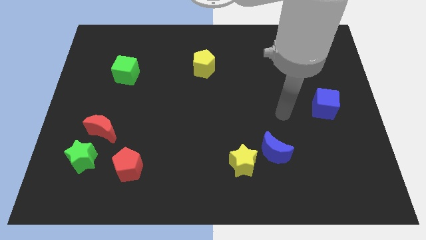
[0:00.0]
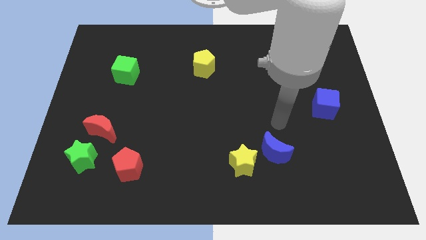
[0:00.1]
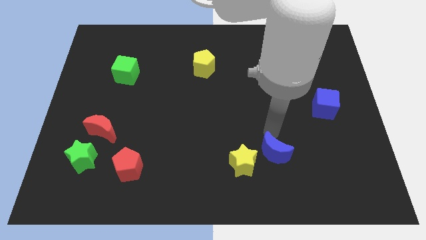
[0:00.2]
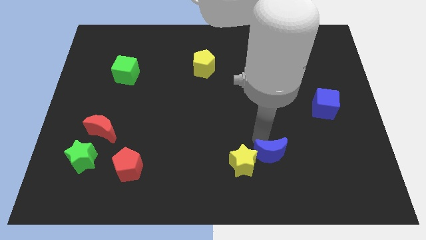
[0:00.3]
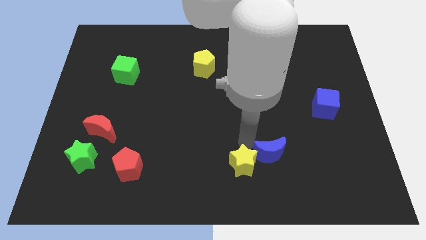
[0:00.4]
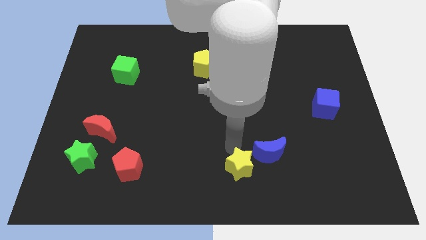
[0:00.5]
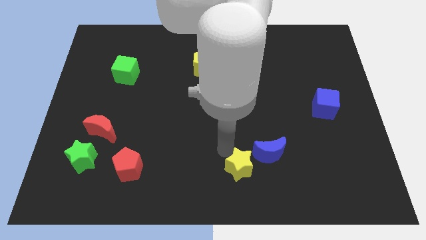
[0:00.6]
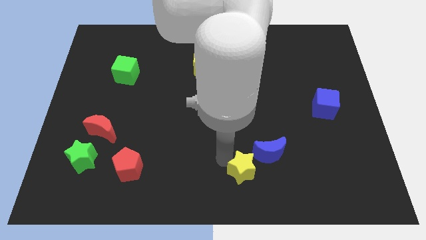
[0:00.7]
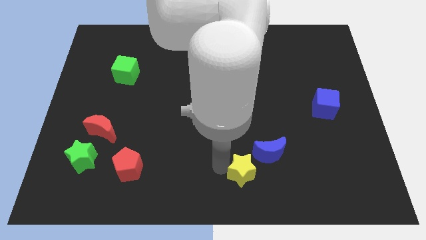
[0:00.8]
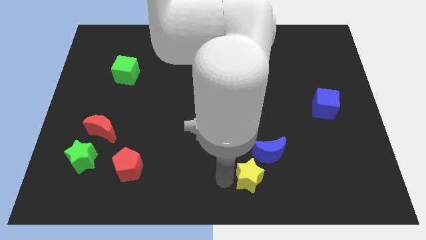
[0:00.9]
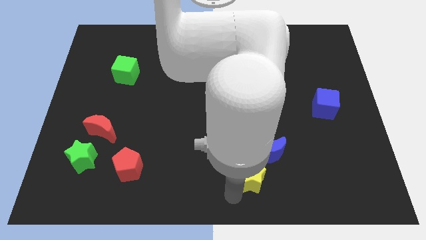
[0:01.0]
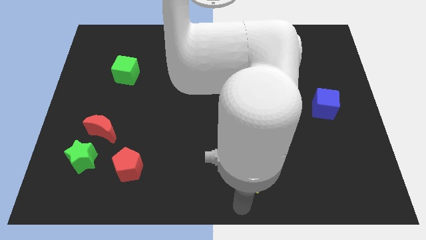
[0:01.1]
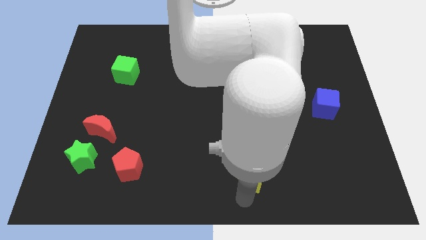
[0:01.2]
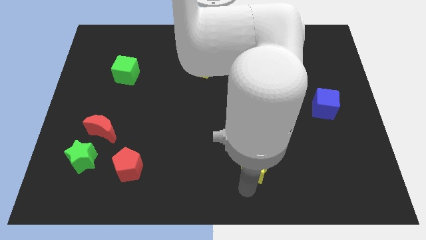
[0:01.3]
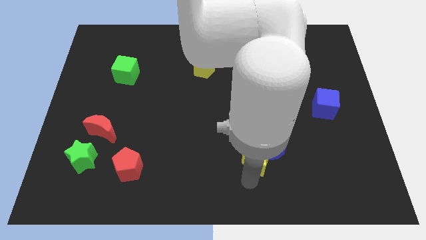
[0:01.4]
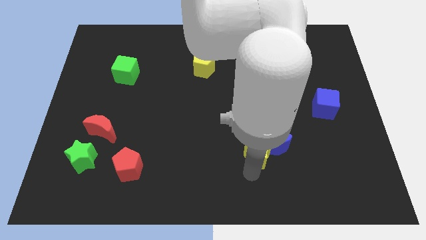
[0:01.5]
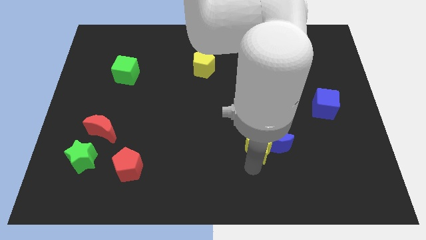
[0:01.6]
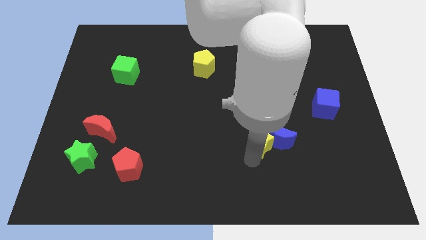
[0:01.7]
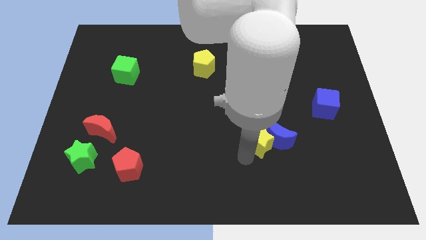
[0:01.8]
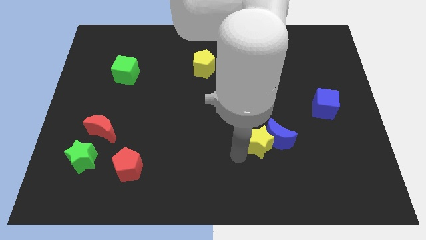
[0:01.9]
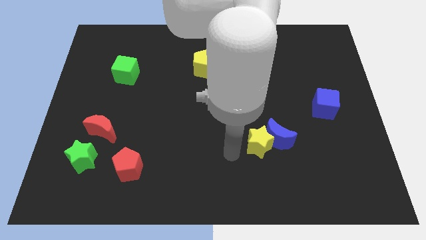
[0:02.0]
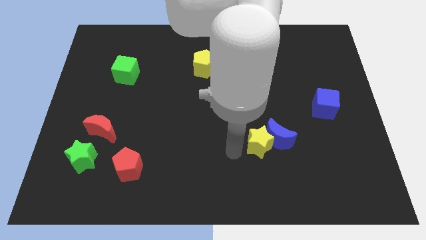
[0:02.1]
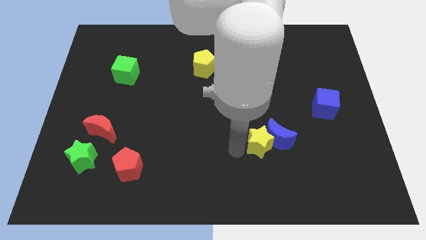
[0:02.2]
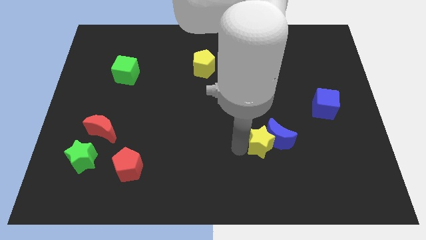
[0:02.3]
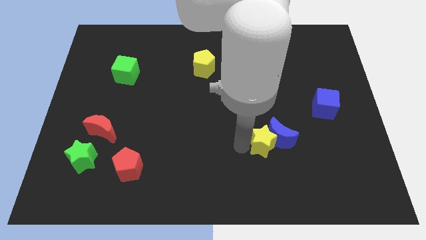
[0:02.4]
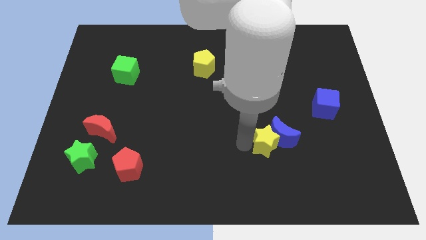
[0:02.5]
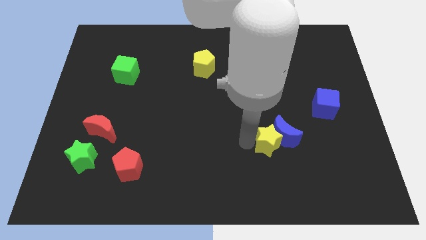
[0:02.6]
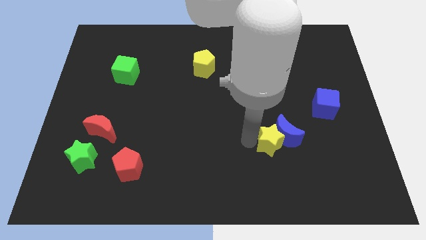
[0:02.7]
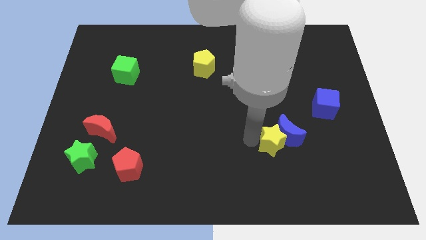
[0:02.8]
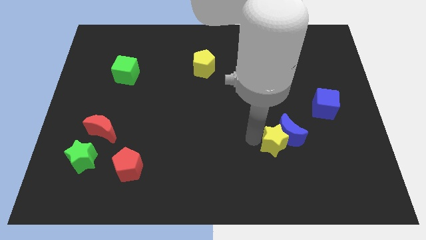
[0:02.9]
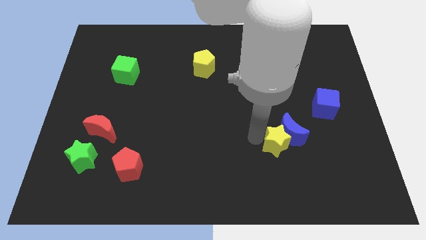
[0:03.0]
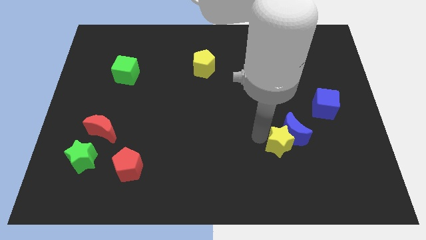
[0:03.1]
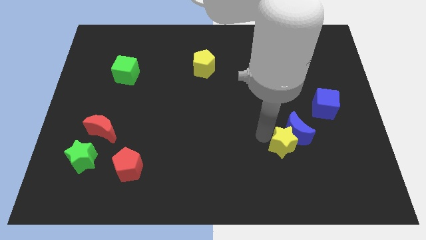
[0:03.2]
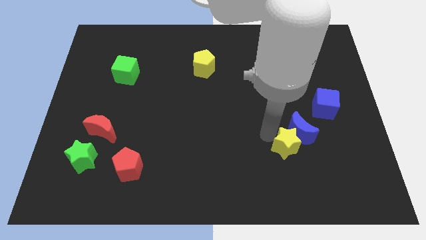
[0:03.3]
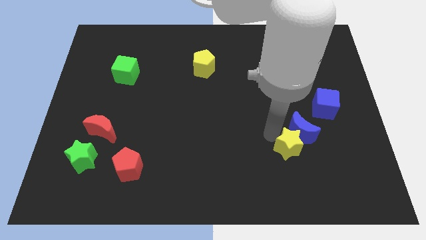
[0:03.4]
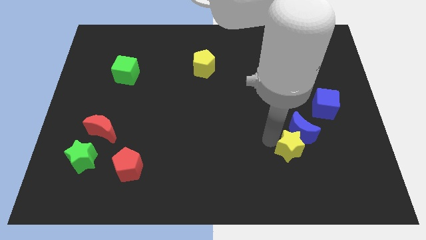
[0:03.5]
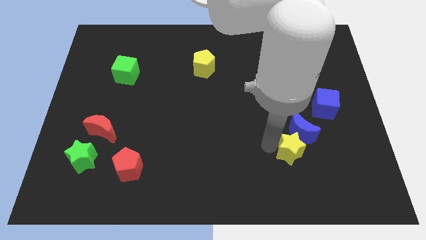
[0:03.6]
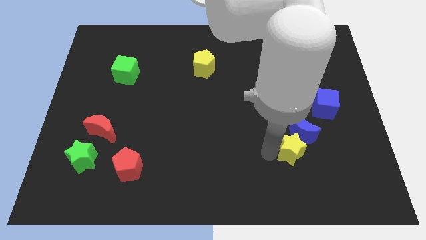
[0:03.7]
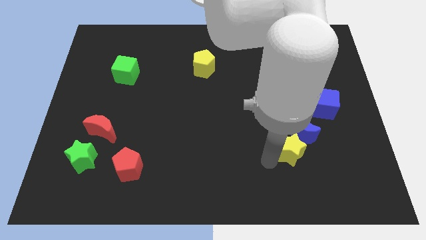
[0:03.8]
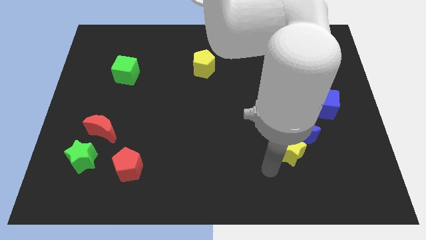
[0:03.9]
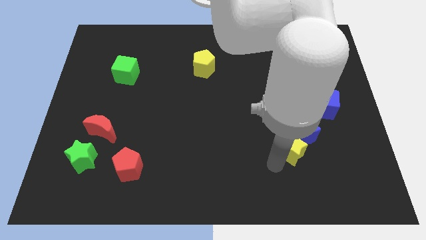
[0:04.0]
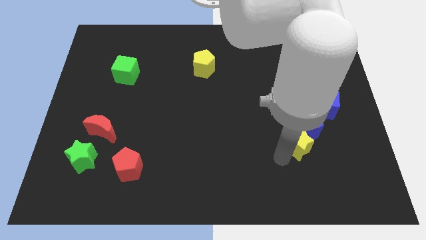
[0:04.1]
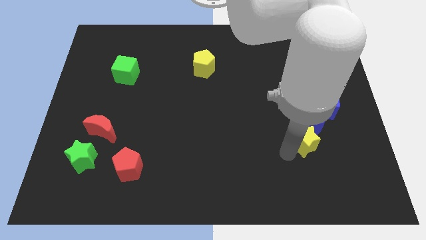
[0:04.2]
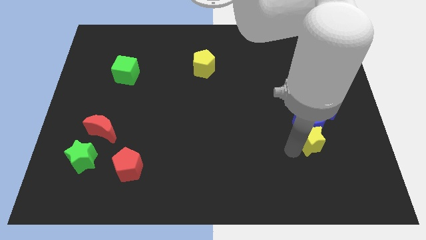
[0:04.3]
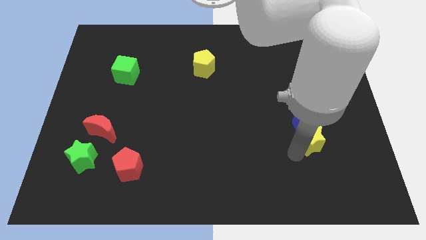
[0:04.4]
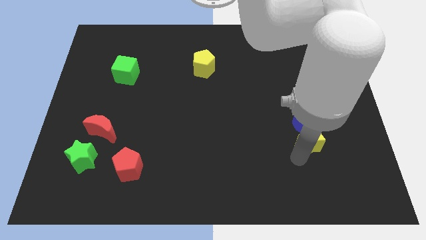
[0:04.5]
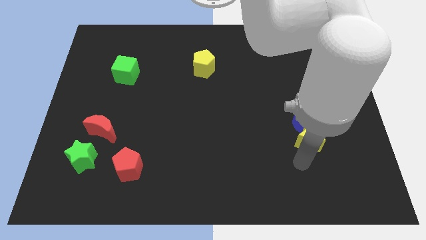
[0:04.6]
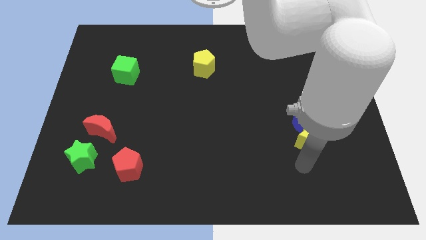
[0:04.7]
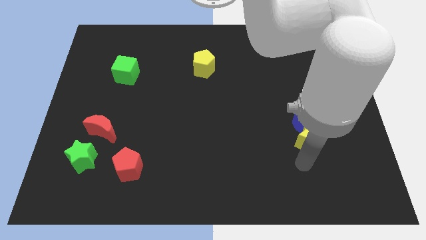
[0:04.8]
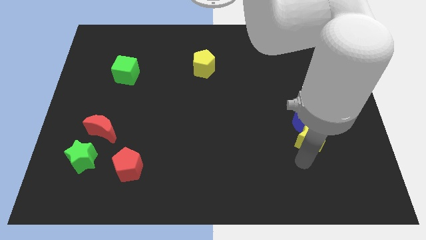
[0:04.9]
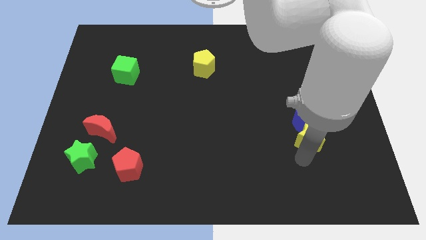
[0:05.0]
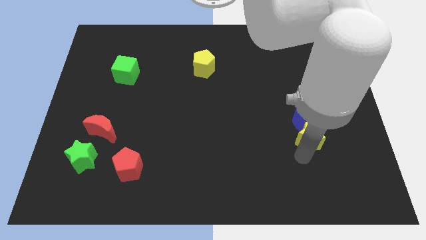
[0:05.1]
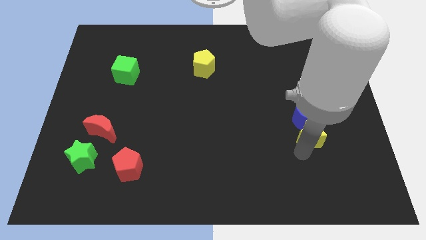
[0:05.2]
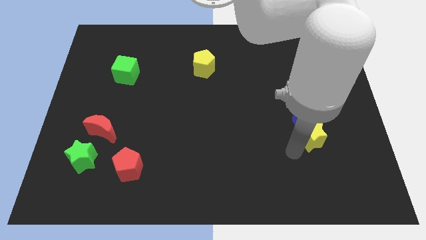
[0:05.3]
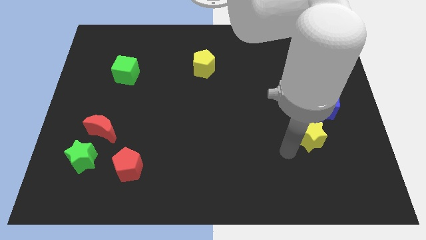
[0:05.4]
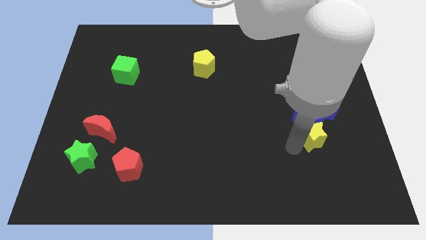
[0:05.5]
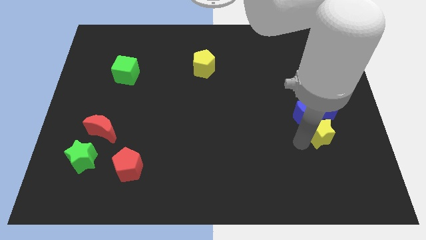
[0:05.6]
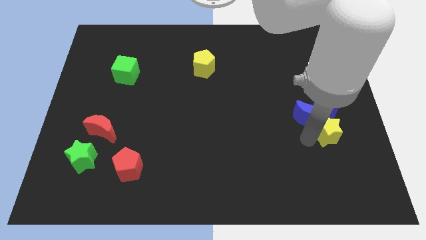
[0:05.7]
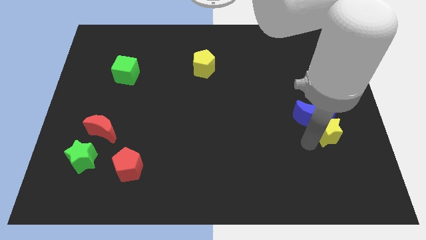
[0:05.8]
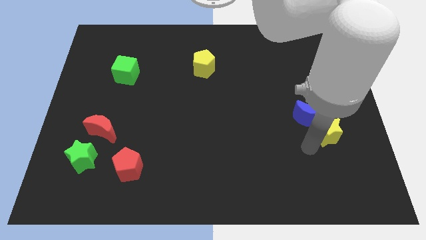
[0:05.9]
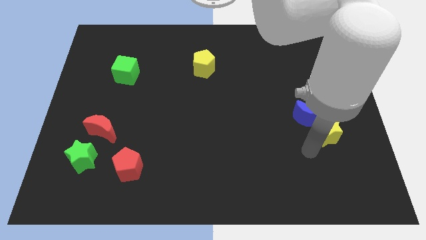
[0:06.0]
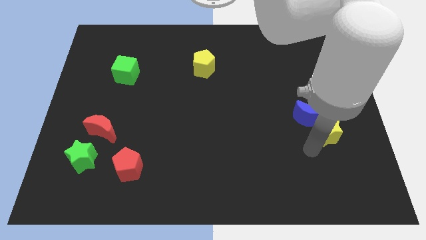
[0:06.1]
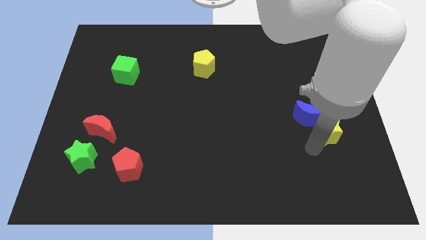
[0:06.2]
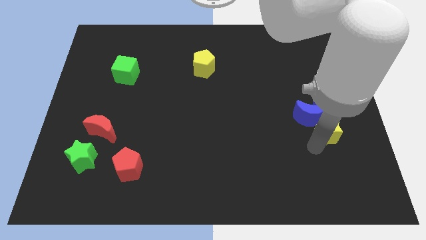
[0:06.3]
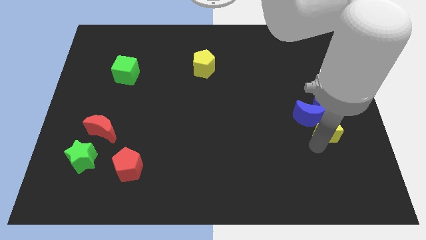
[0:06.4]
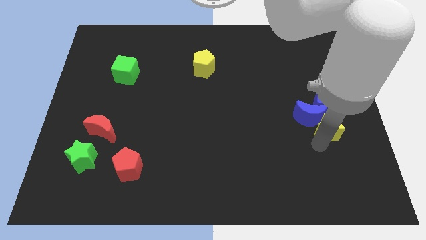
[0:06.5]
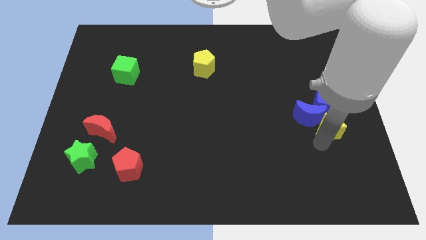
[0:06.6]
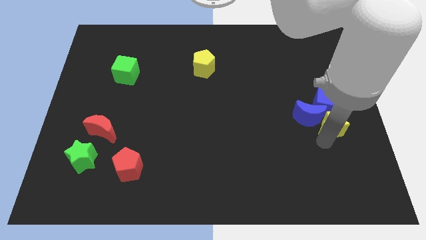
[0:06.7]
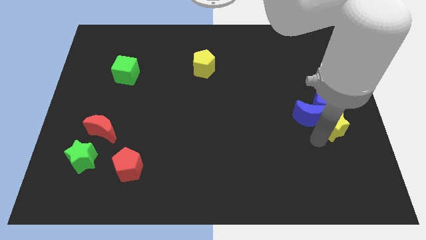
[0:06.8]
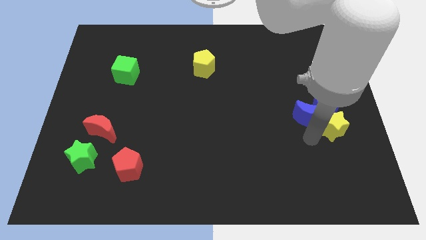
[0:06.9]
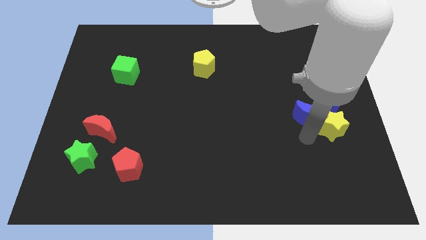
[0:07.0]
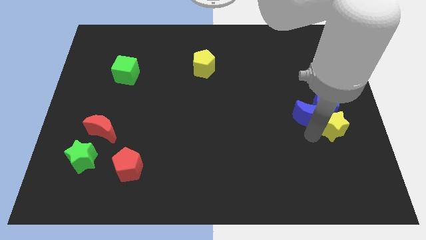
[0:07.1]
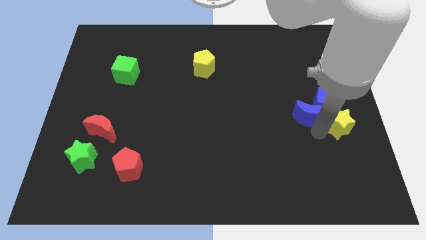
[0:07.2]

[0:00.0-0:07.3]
move the yellow star to the right side
